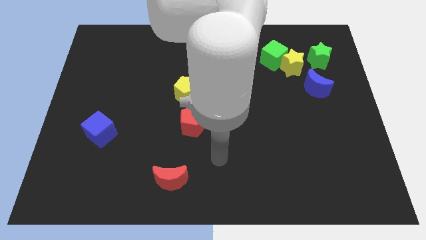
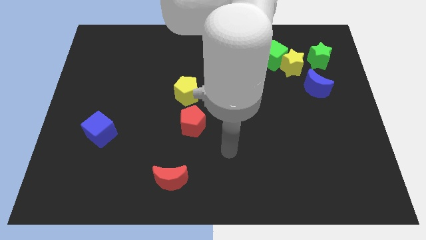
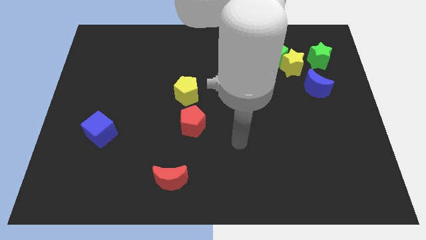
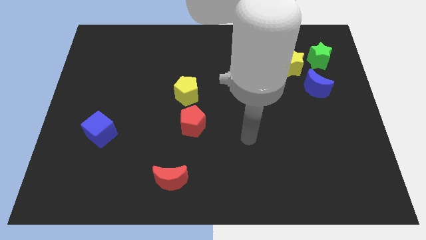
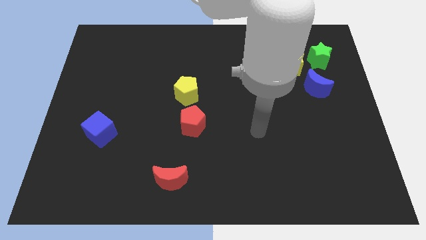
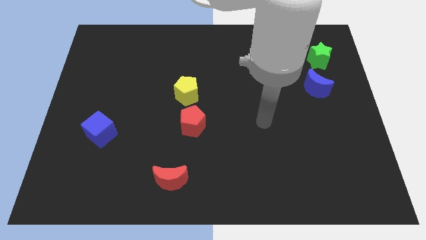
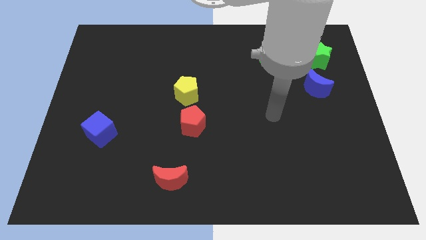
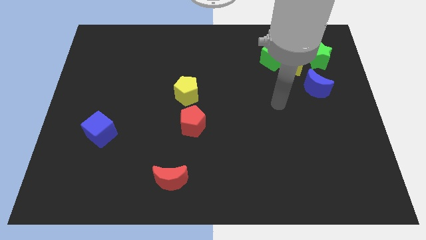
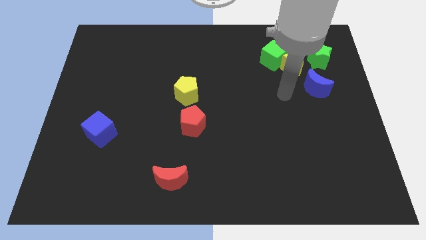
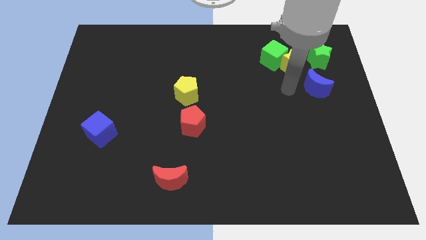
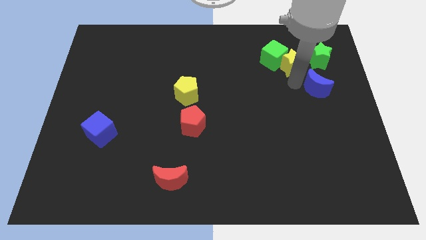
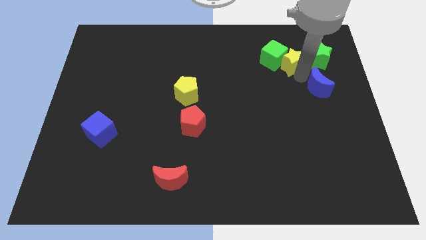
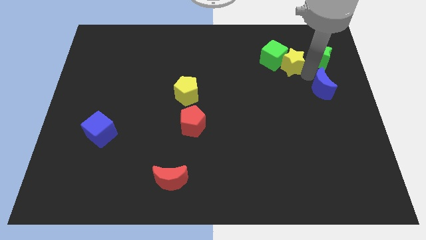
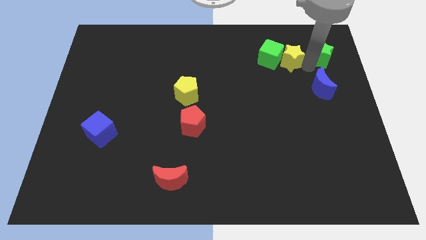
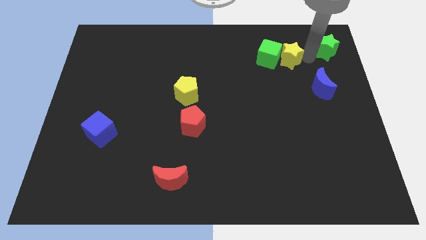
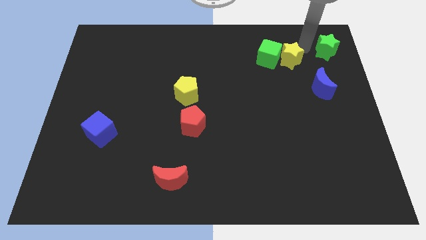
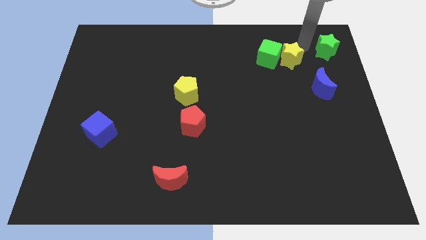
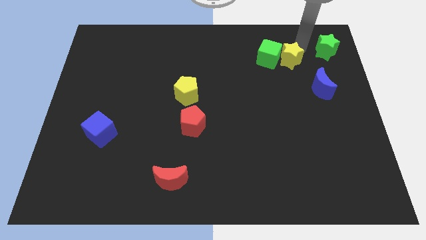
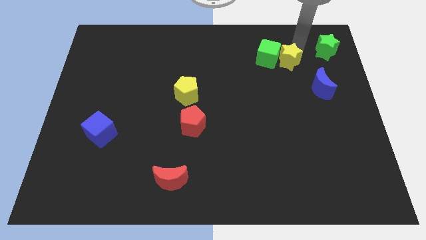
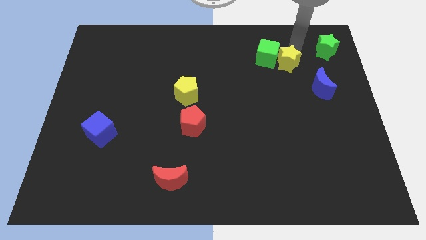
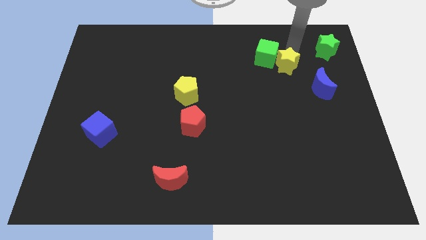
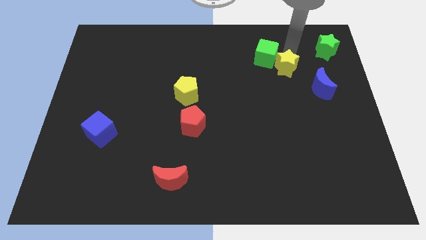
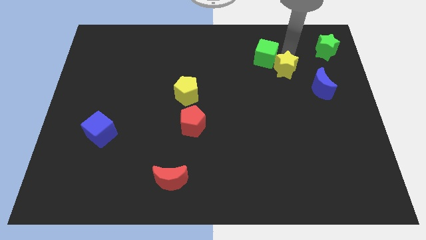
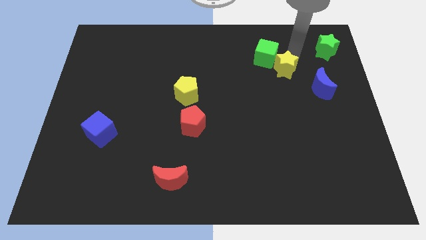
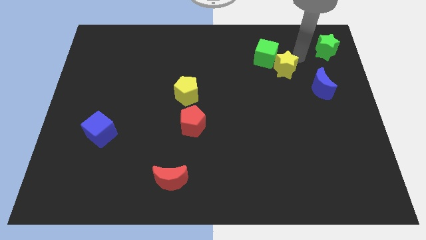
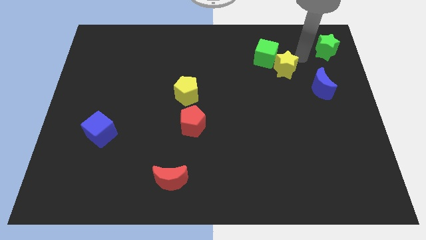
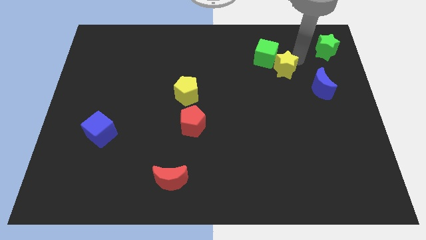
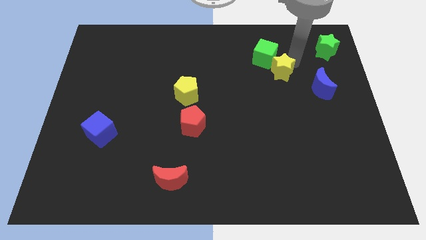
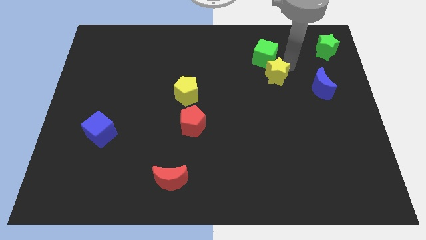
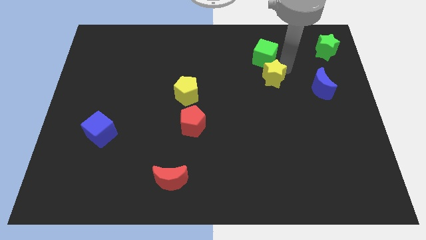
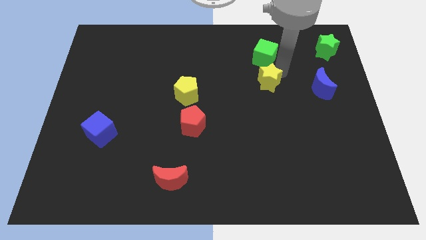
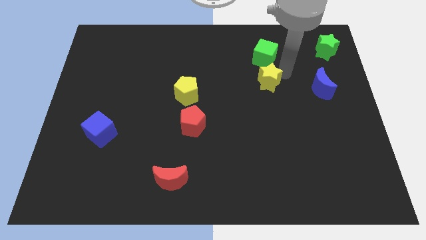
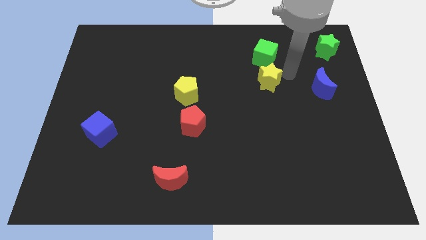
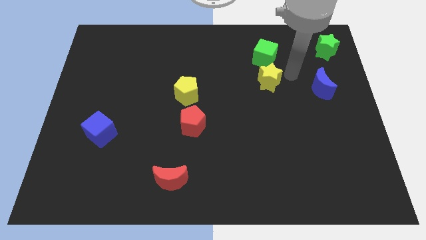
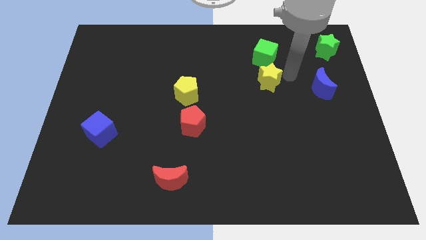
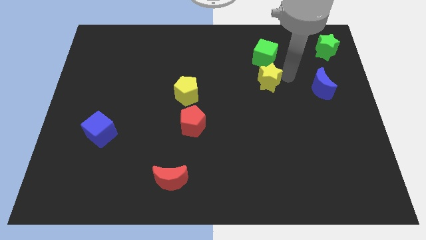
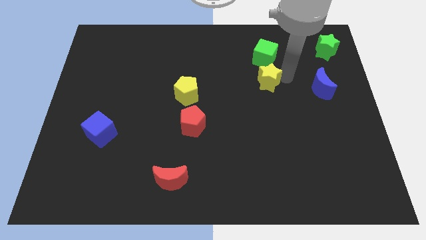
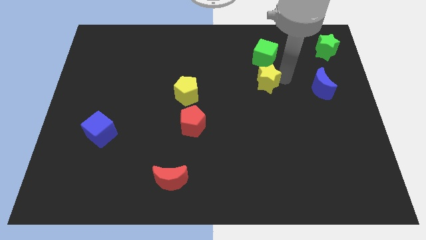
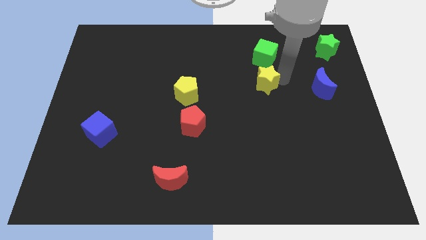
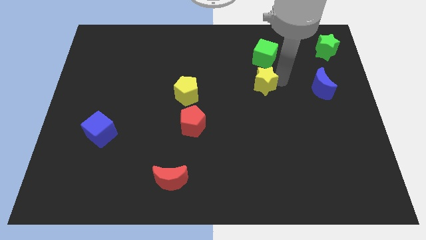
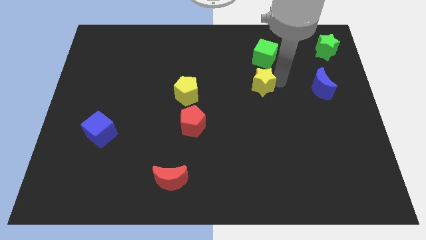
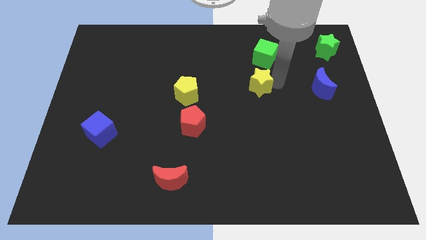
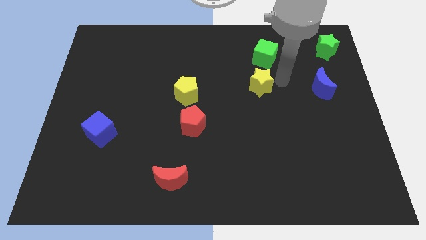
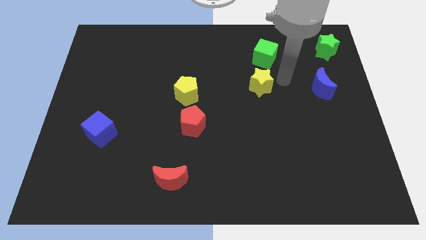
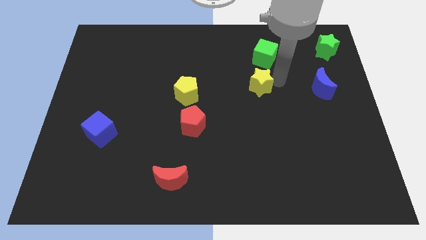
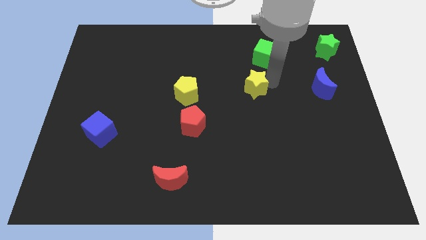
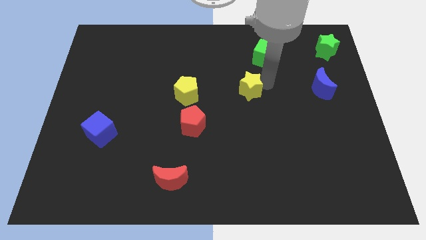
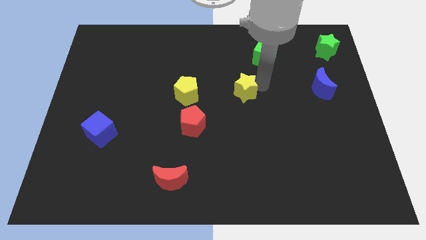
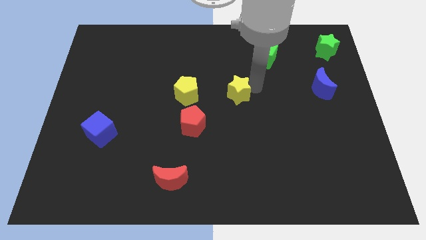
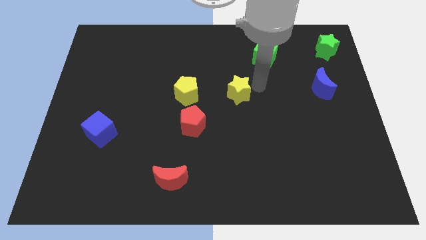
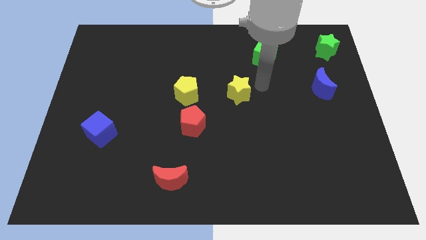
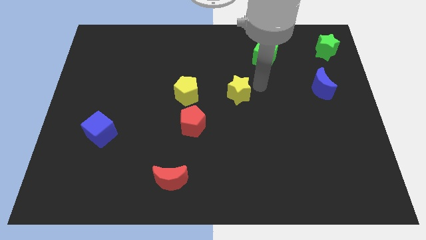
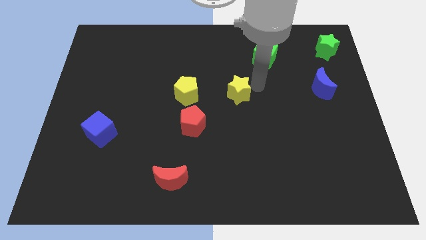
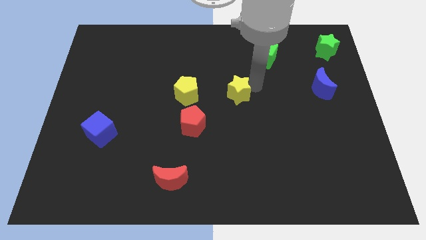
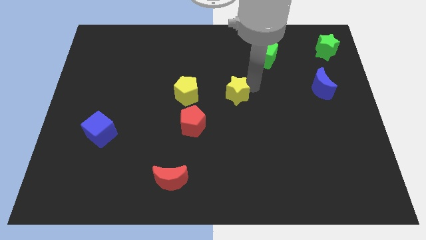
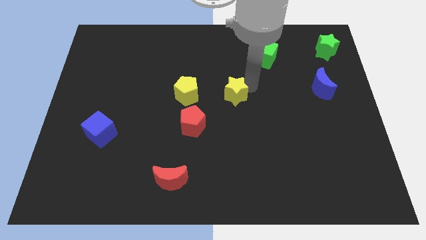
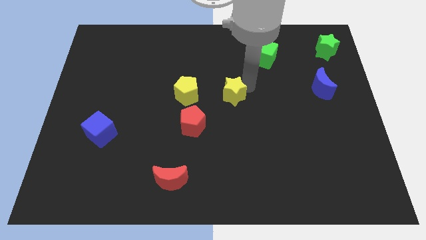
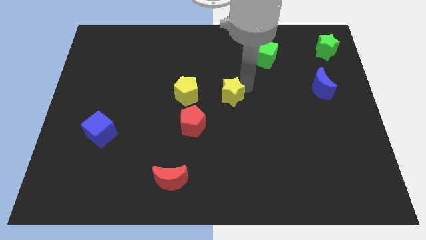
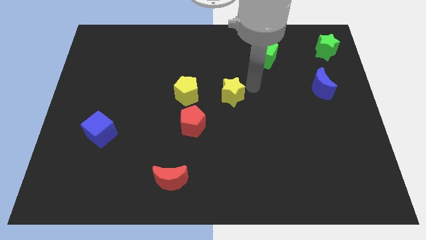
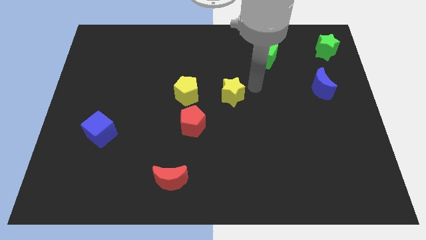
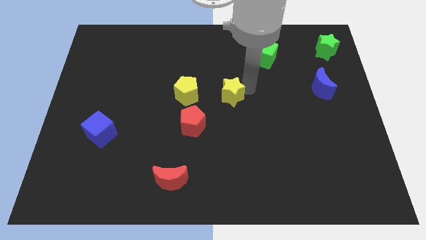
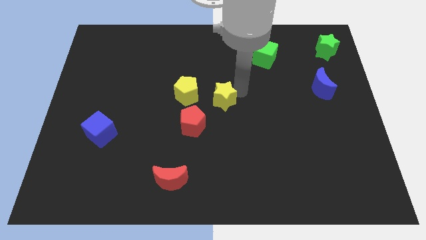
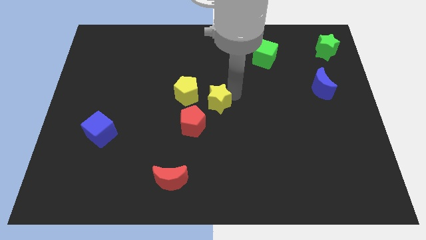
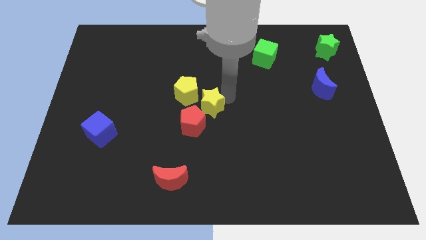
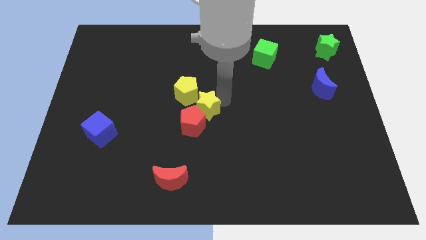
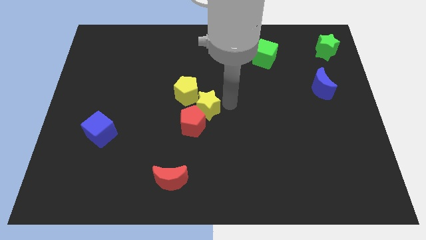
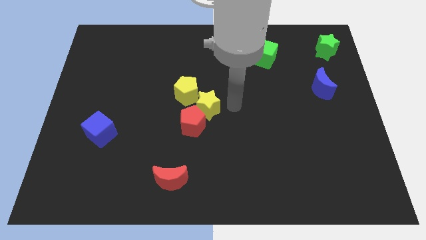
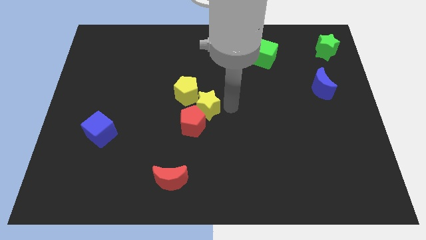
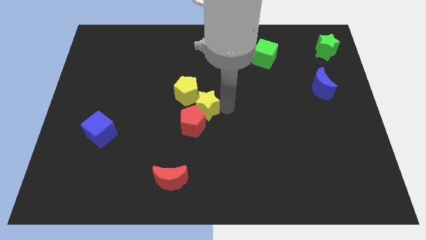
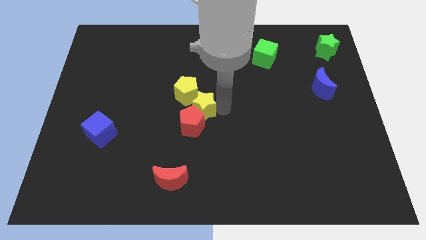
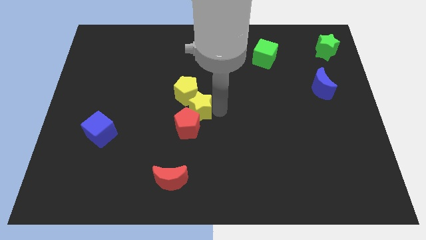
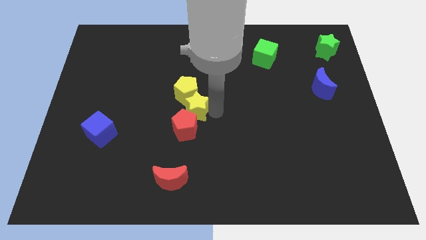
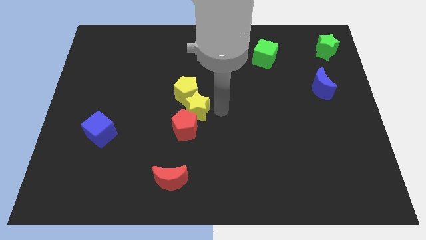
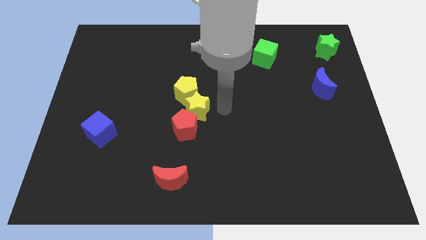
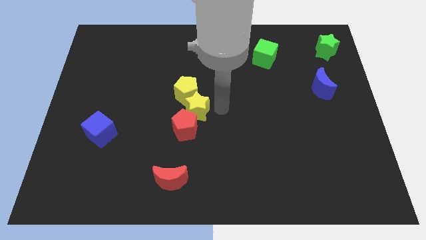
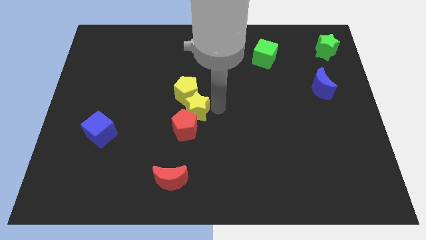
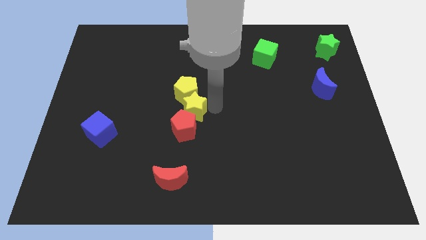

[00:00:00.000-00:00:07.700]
slide the yellow star to the bottom left of the yellow pentagon
